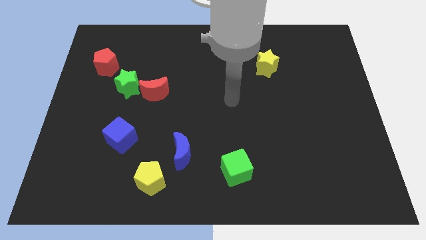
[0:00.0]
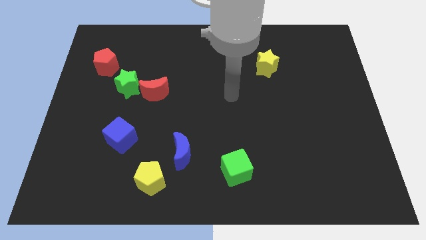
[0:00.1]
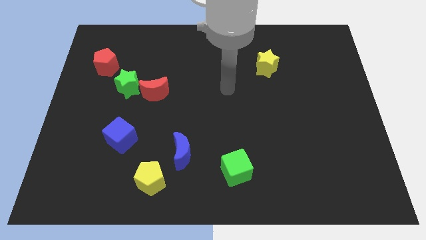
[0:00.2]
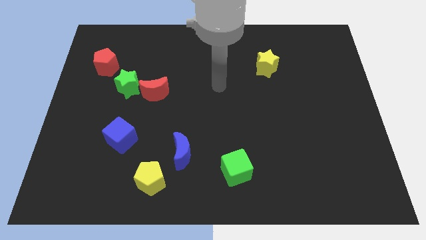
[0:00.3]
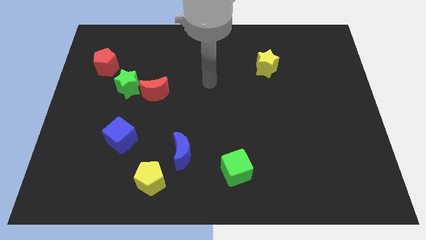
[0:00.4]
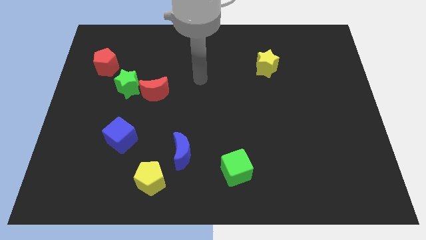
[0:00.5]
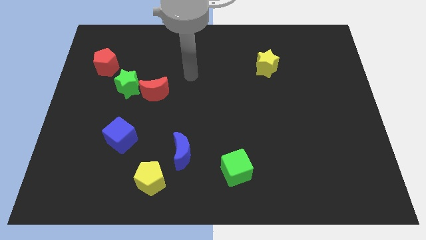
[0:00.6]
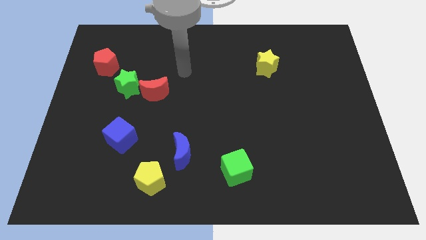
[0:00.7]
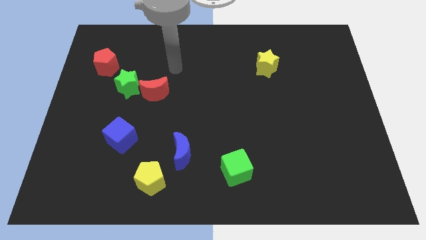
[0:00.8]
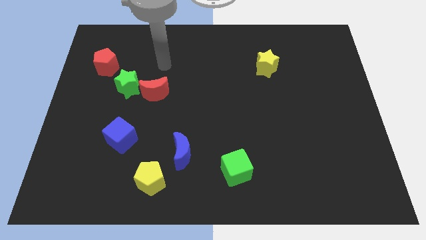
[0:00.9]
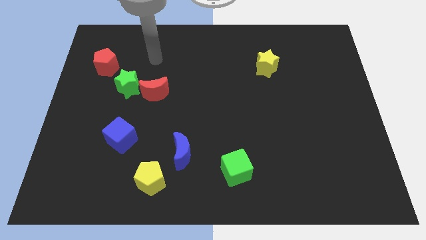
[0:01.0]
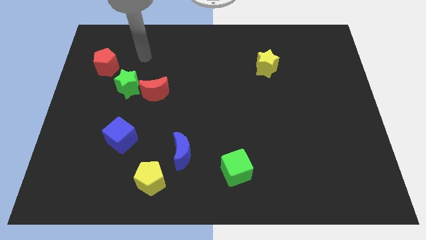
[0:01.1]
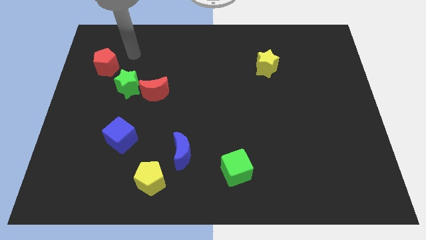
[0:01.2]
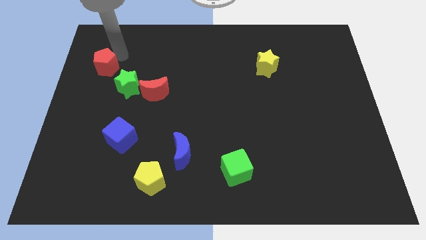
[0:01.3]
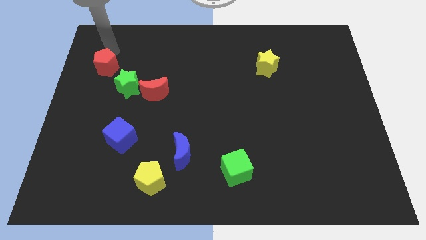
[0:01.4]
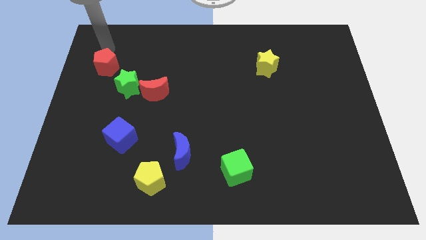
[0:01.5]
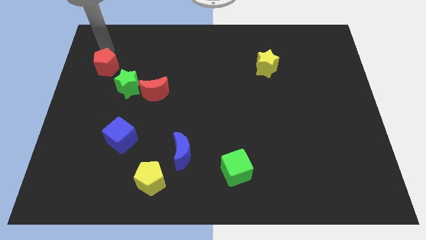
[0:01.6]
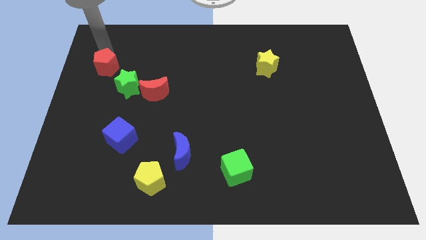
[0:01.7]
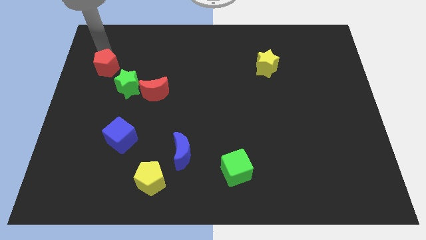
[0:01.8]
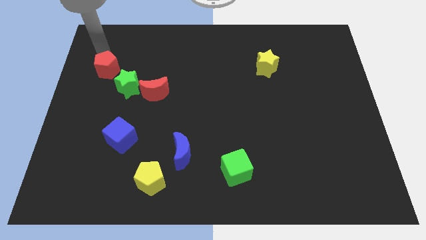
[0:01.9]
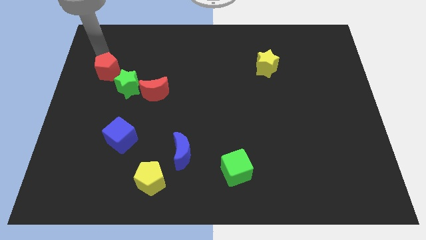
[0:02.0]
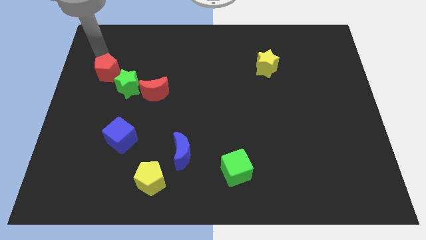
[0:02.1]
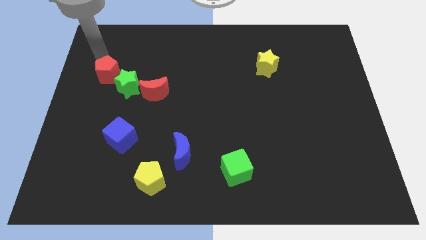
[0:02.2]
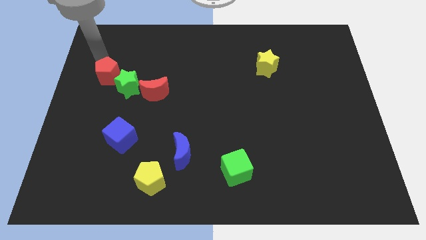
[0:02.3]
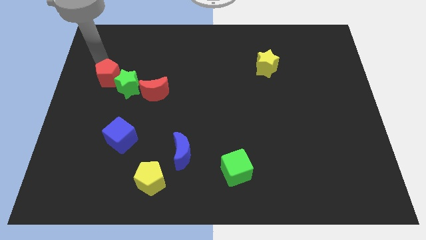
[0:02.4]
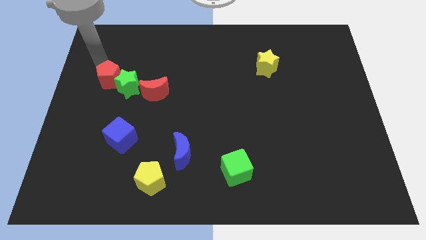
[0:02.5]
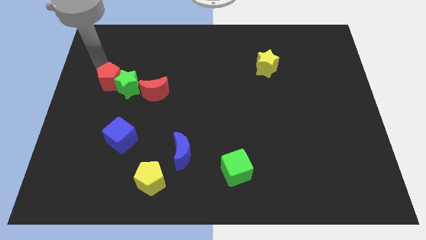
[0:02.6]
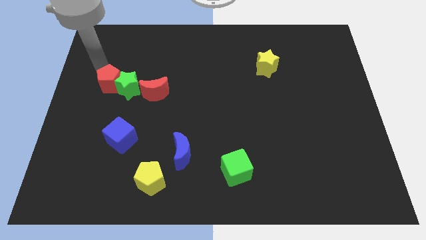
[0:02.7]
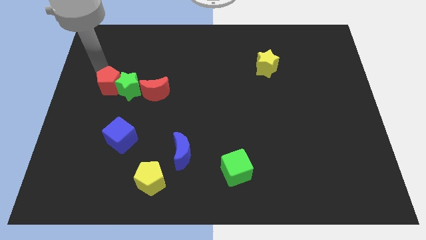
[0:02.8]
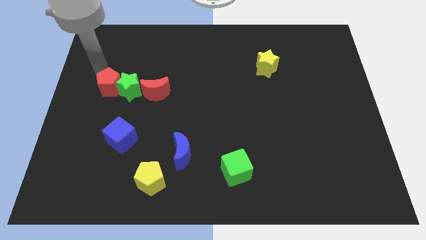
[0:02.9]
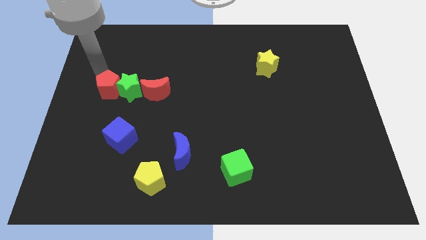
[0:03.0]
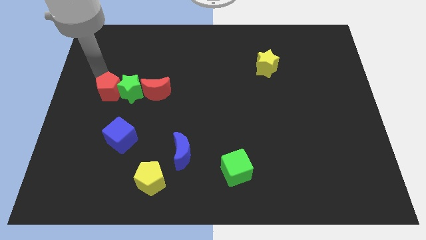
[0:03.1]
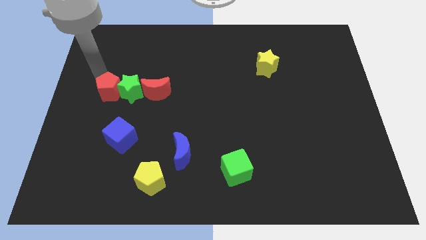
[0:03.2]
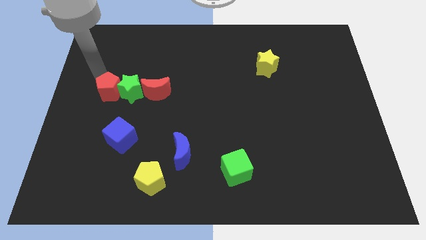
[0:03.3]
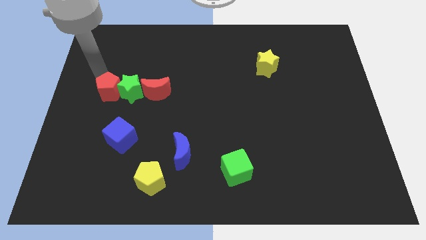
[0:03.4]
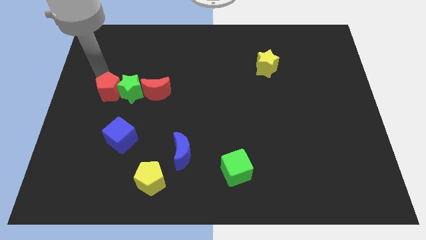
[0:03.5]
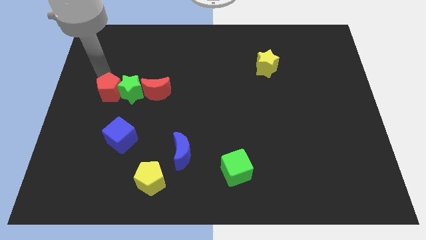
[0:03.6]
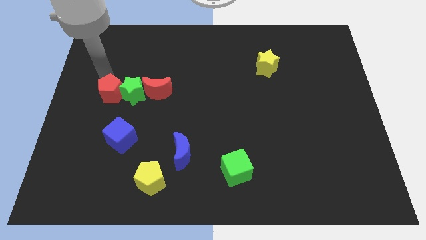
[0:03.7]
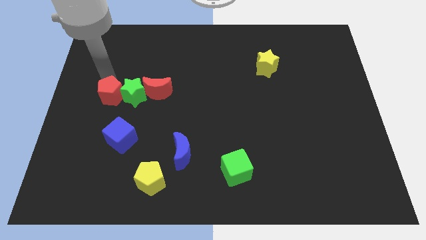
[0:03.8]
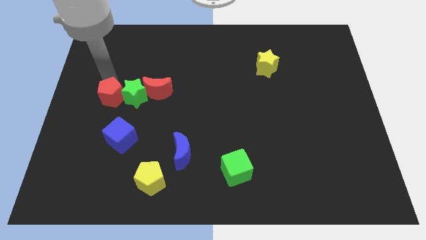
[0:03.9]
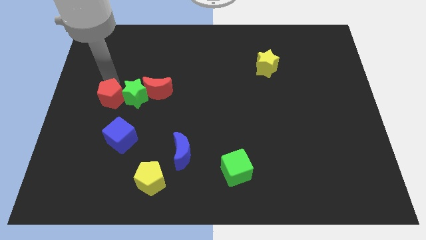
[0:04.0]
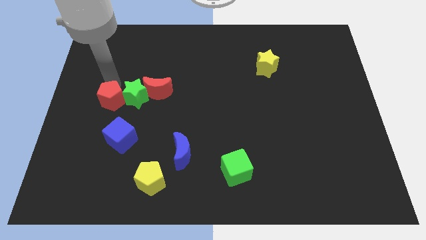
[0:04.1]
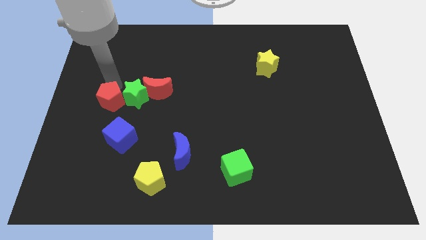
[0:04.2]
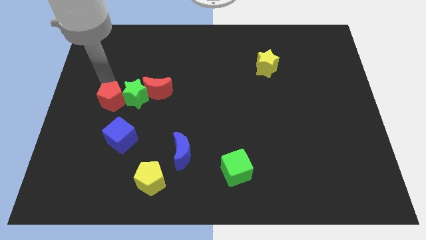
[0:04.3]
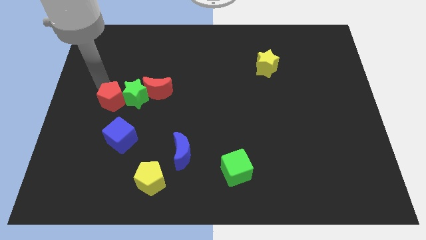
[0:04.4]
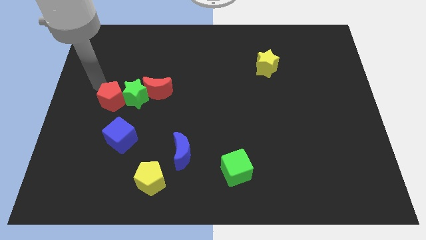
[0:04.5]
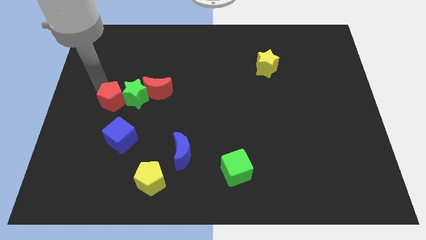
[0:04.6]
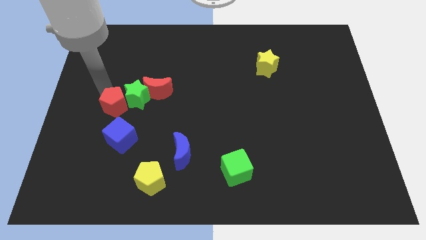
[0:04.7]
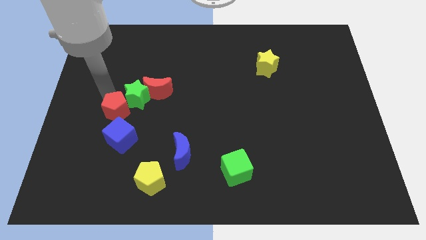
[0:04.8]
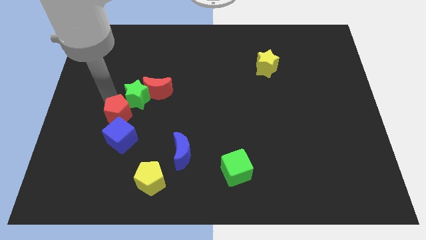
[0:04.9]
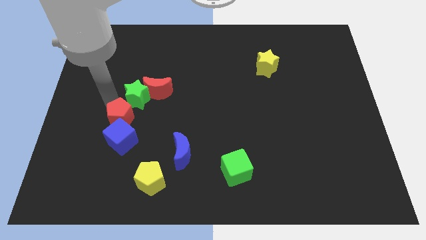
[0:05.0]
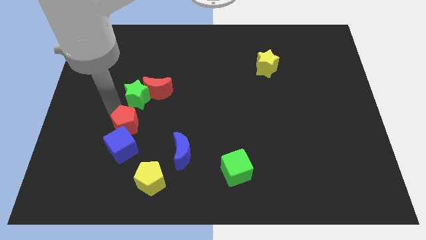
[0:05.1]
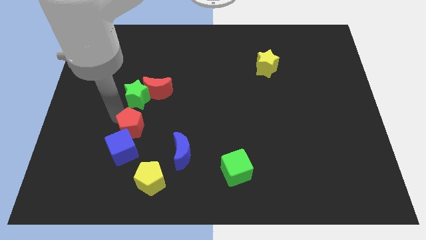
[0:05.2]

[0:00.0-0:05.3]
slide the red pentagon to the bottom side of the red moon

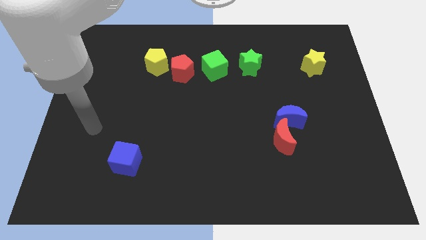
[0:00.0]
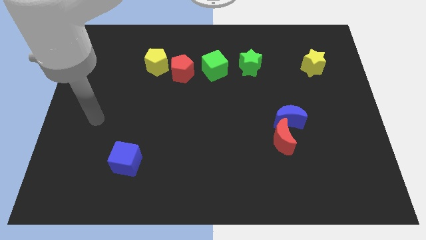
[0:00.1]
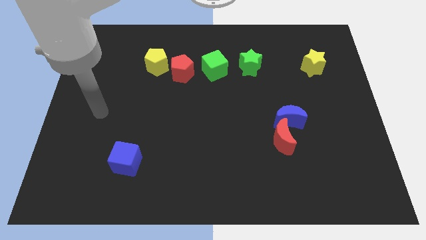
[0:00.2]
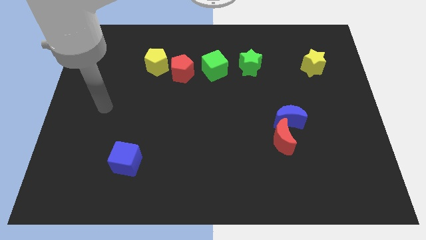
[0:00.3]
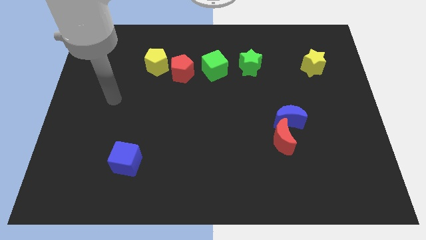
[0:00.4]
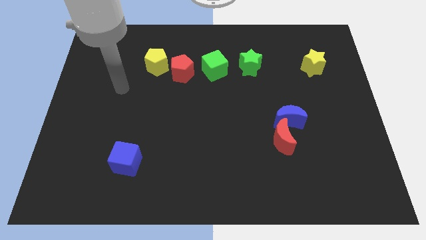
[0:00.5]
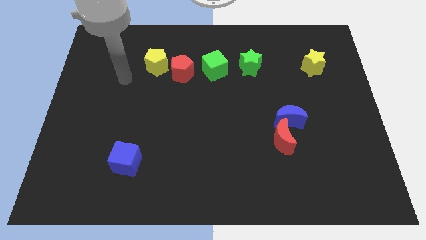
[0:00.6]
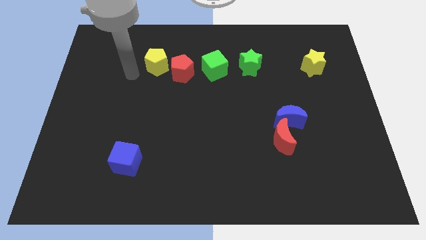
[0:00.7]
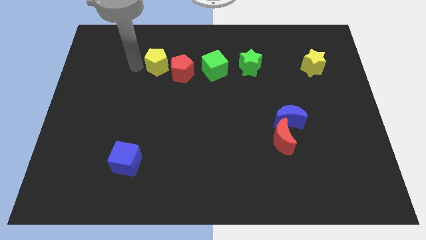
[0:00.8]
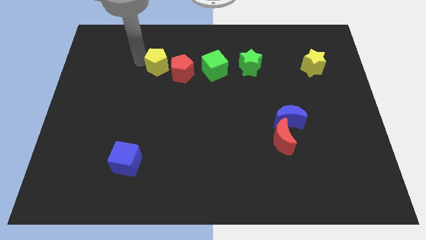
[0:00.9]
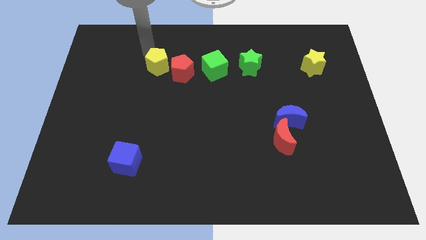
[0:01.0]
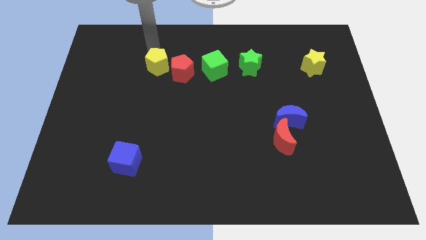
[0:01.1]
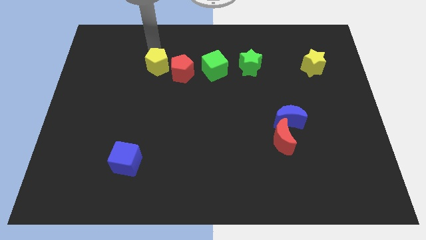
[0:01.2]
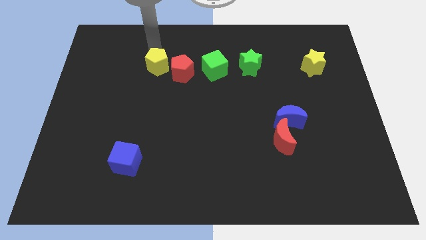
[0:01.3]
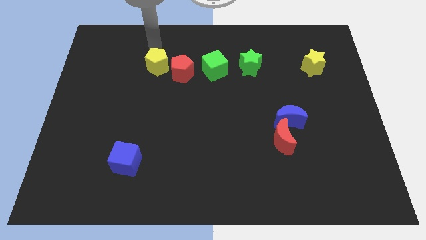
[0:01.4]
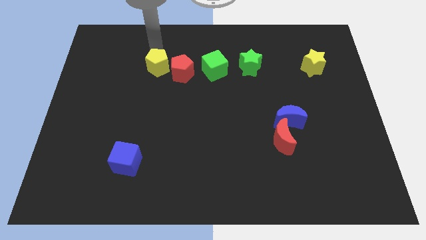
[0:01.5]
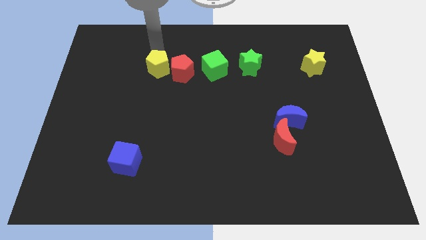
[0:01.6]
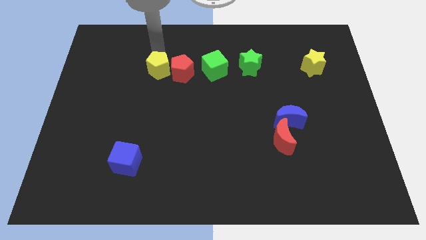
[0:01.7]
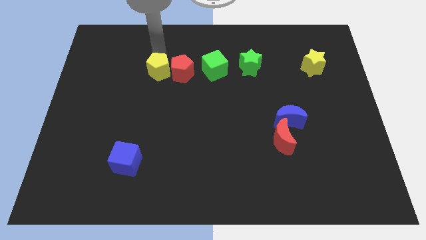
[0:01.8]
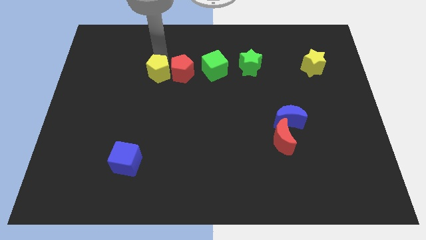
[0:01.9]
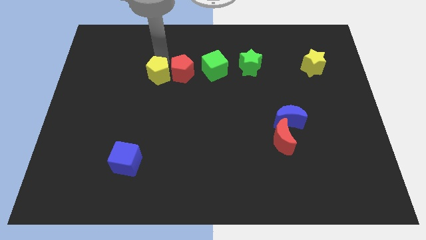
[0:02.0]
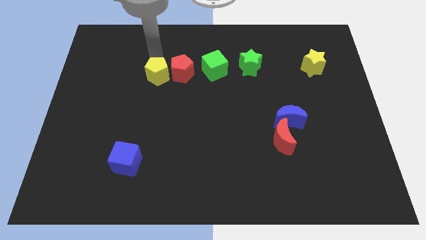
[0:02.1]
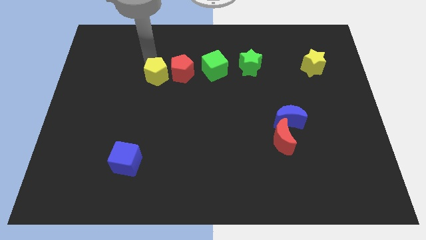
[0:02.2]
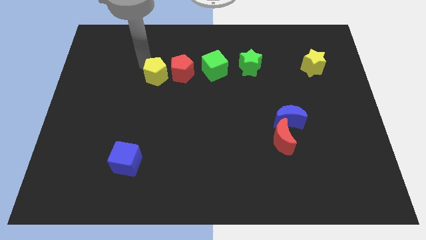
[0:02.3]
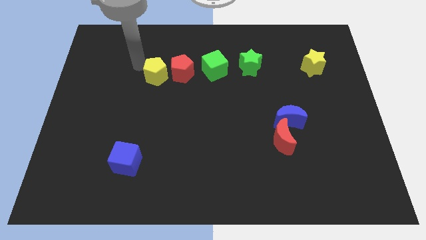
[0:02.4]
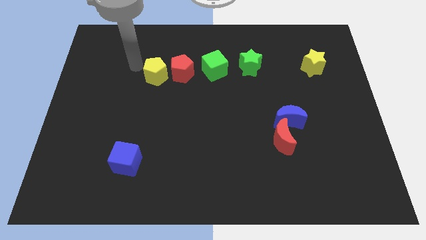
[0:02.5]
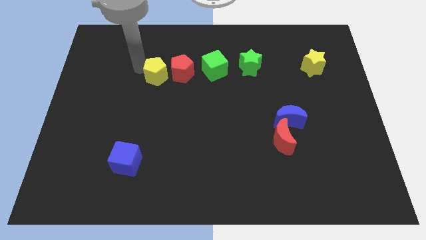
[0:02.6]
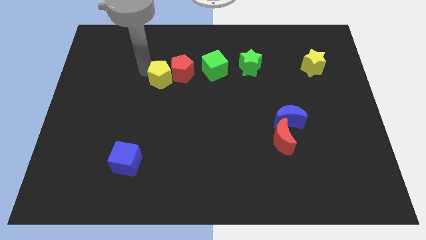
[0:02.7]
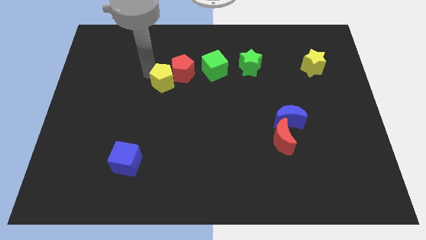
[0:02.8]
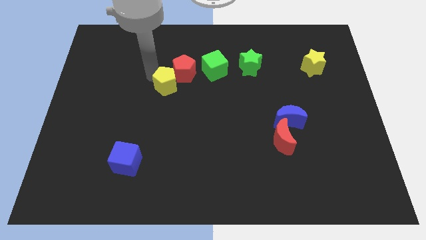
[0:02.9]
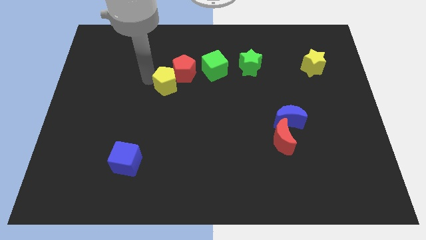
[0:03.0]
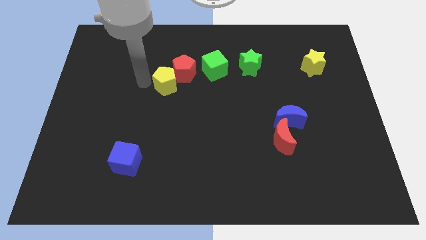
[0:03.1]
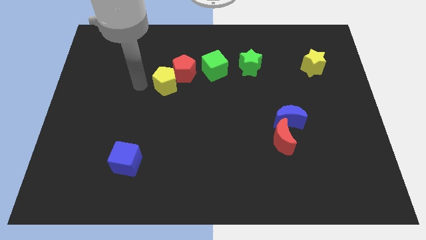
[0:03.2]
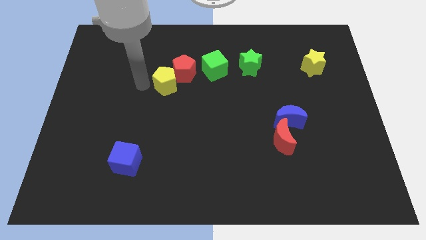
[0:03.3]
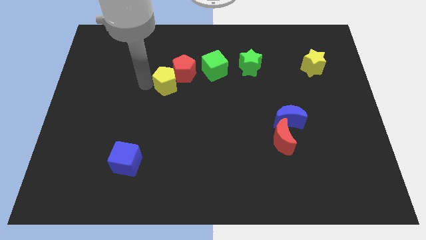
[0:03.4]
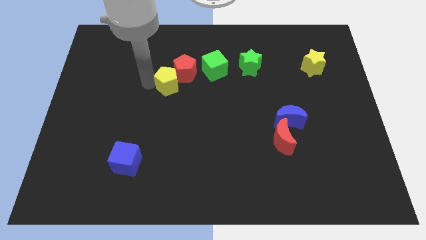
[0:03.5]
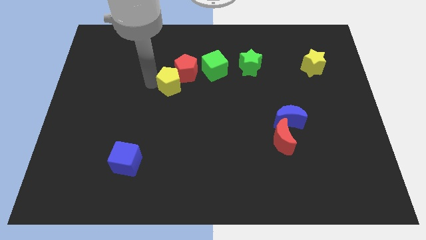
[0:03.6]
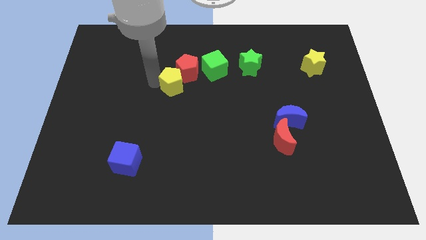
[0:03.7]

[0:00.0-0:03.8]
slide the yellow pentagon to the bottom left side of the green cube
